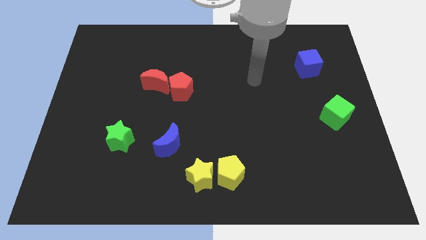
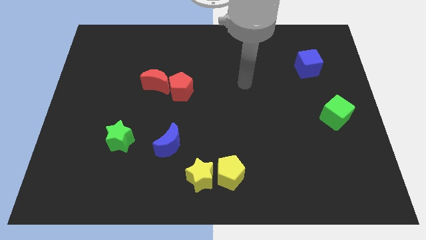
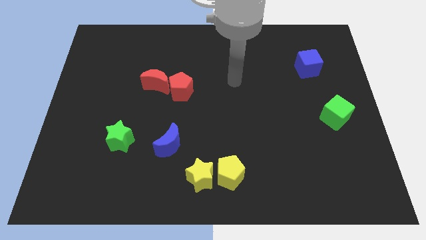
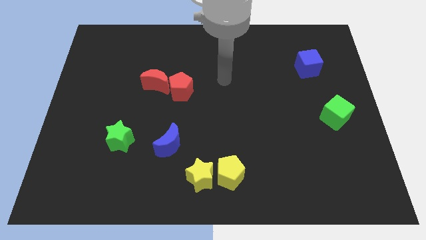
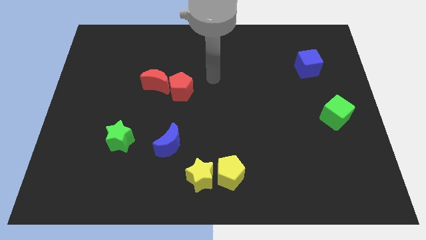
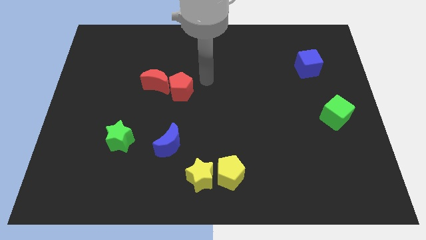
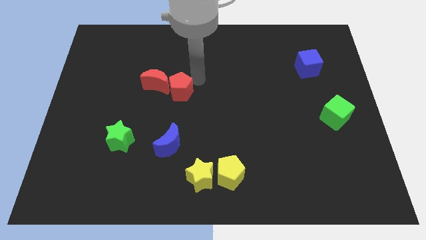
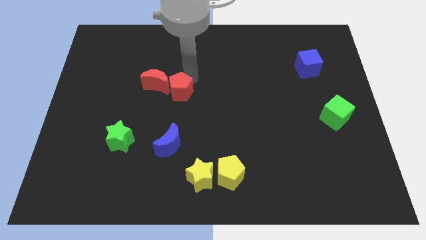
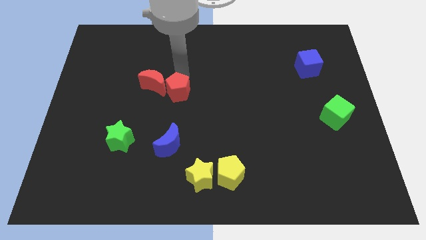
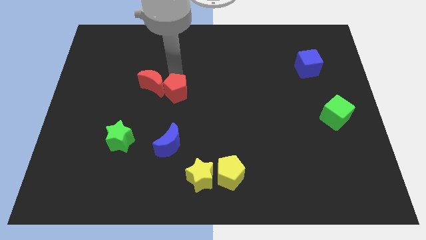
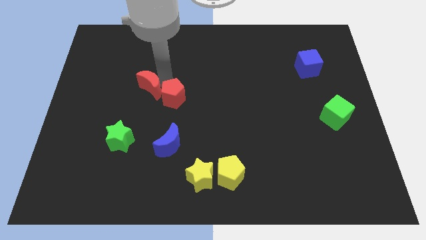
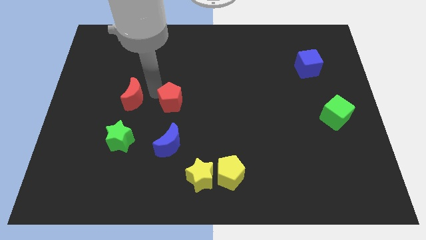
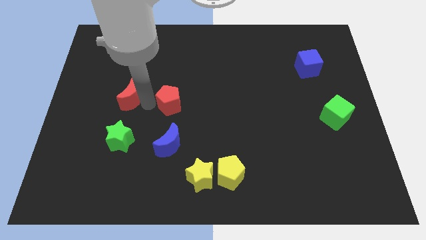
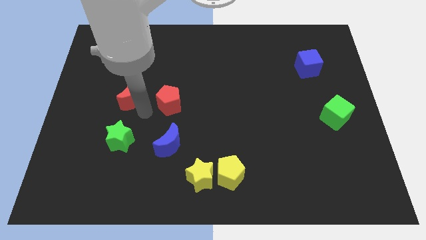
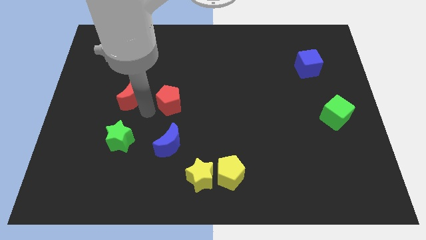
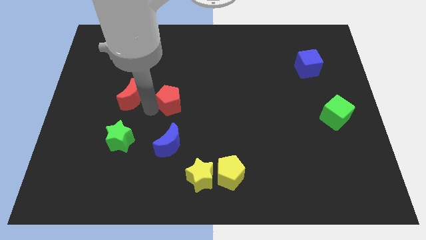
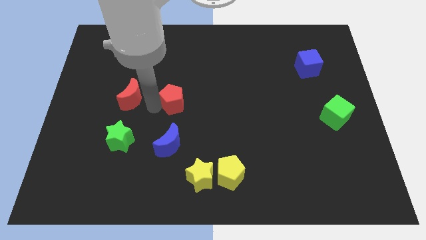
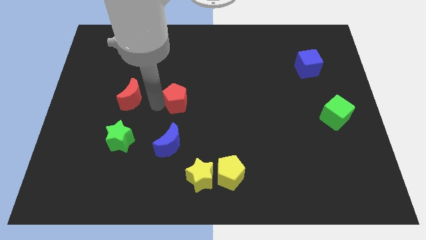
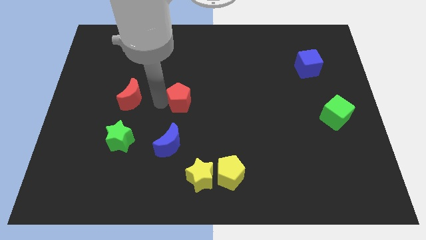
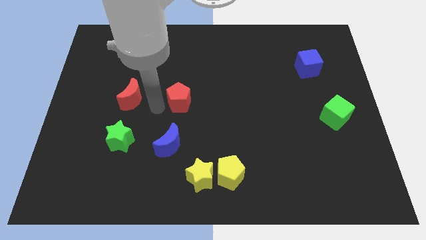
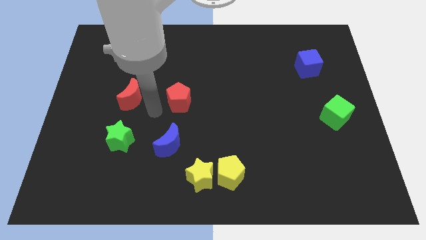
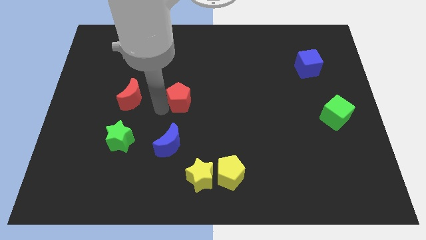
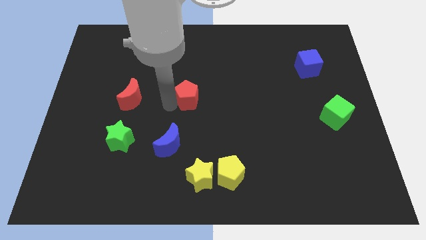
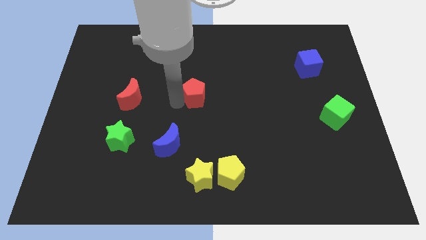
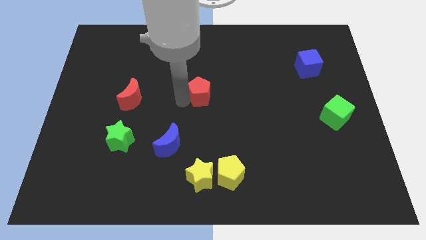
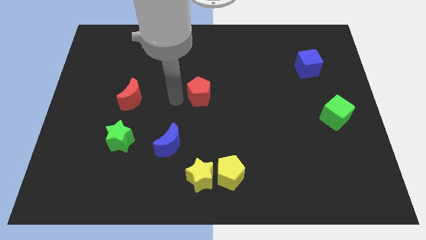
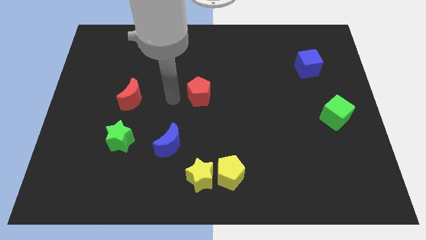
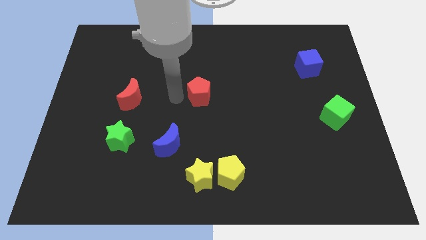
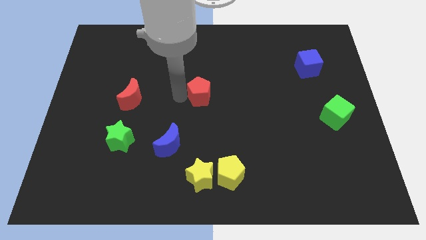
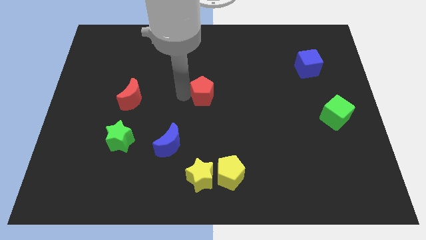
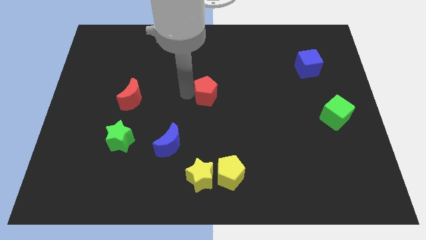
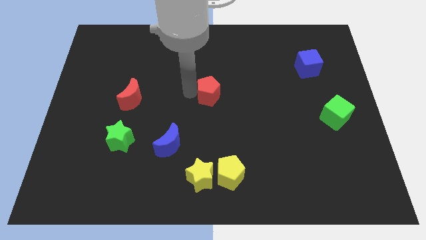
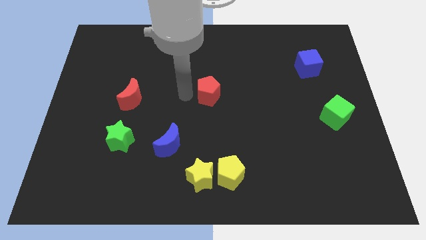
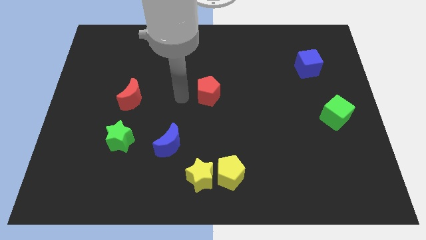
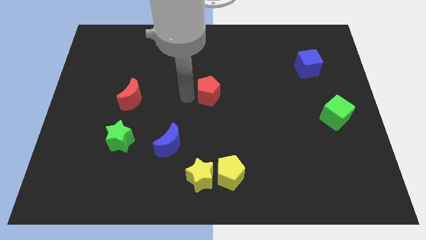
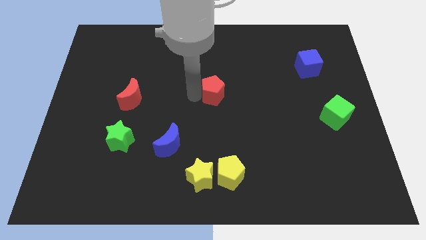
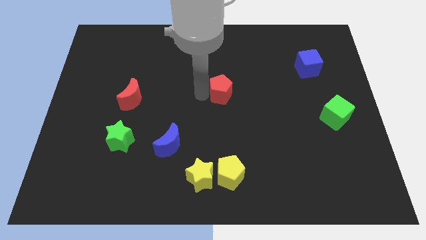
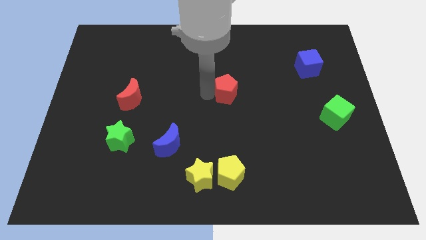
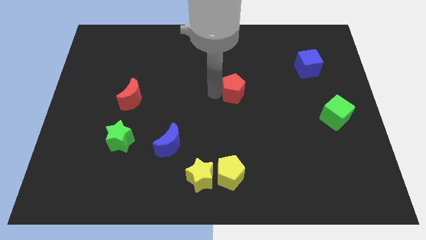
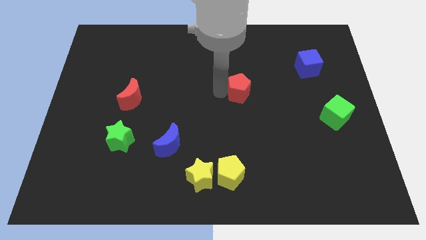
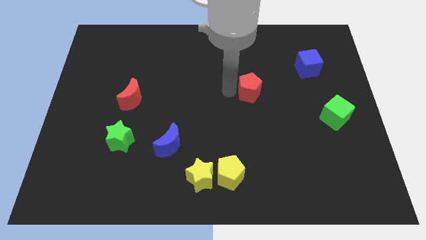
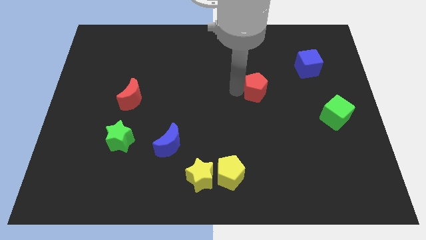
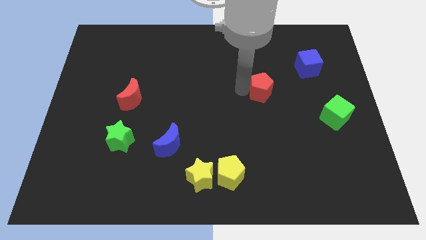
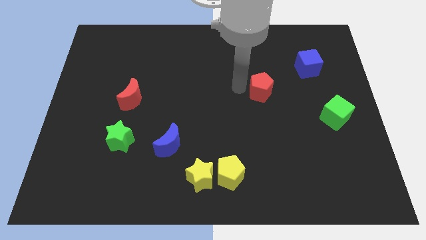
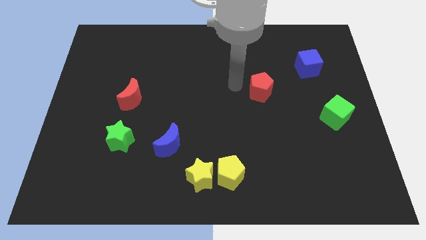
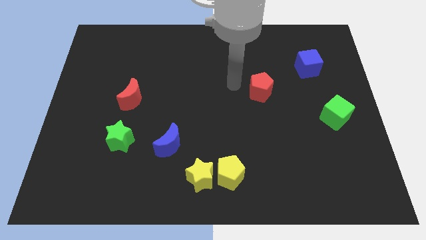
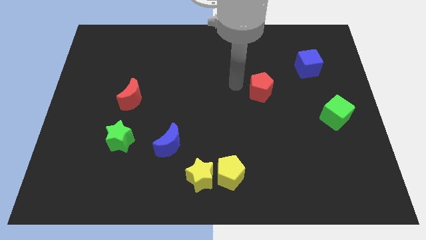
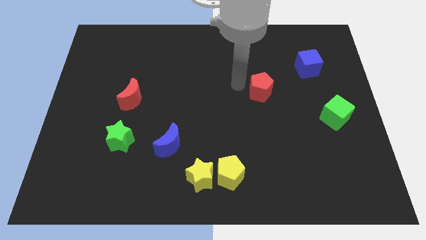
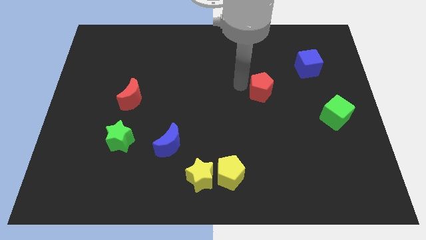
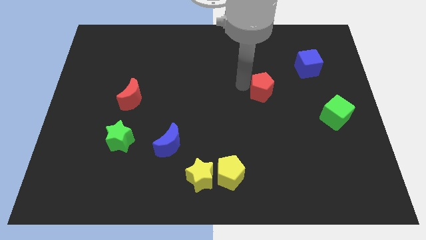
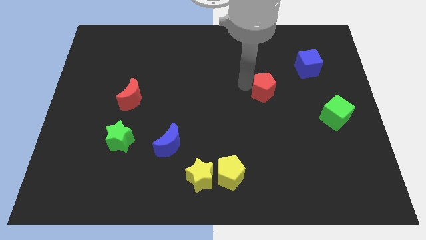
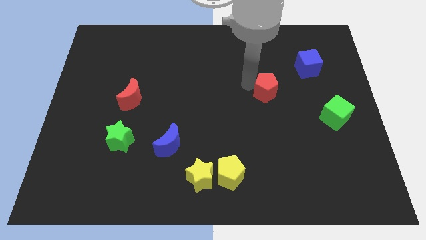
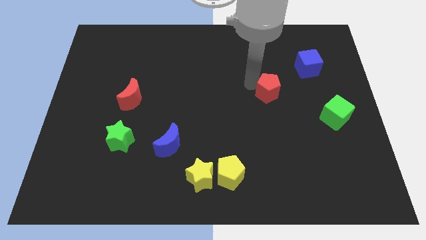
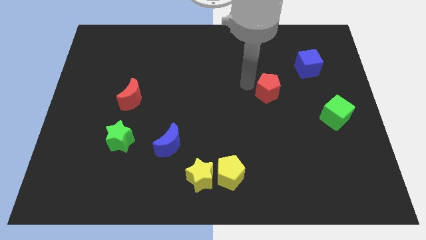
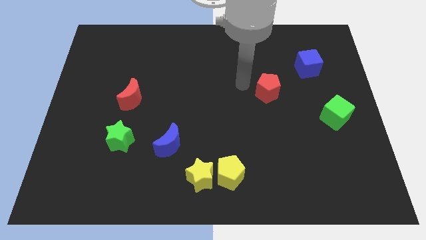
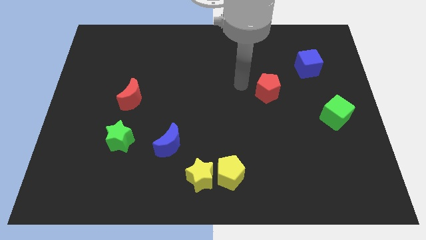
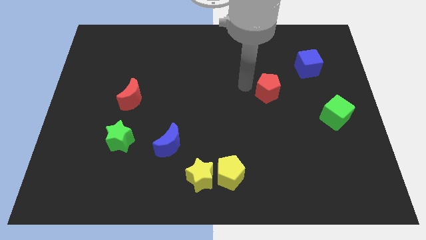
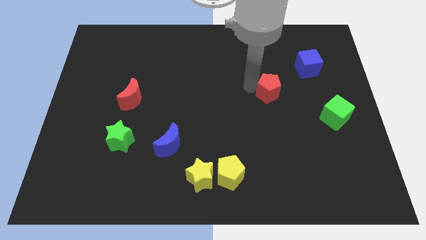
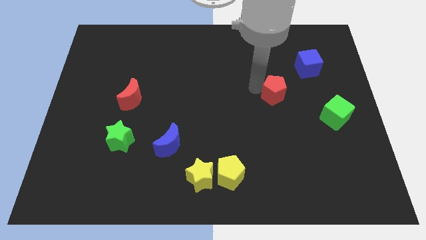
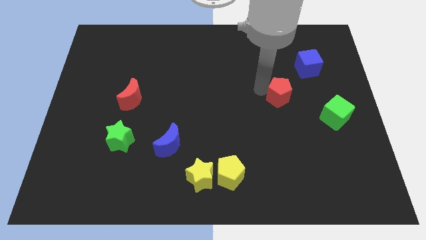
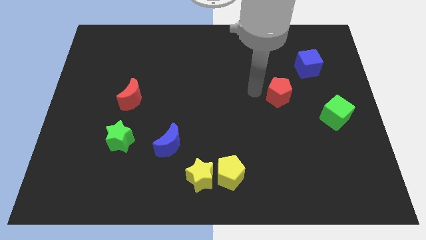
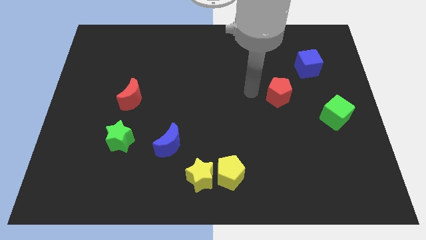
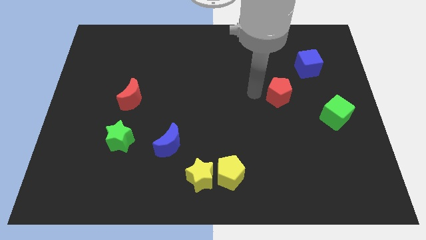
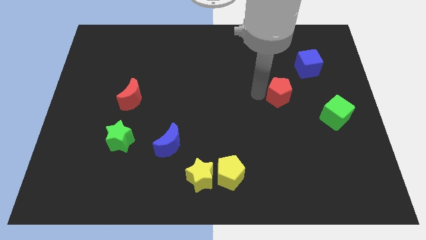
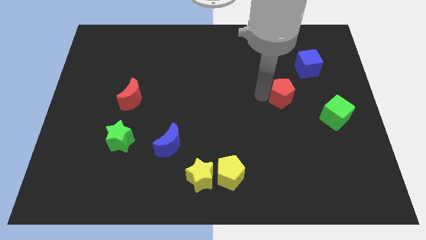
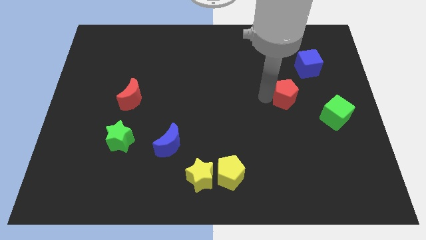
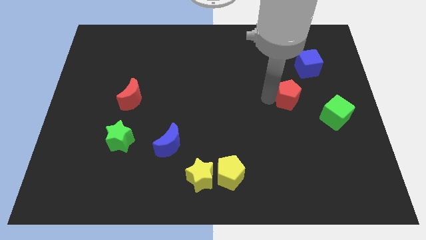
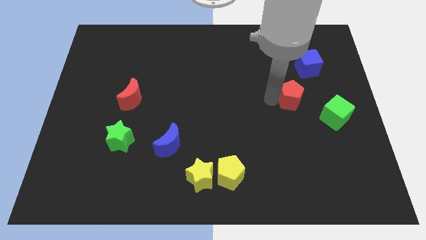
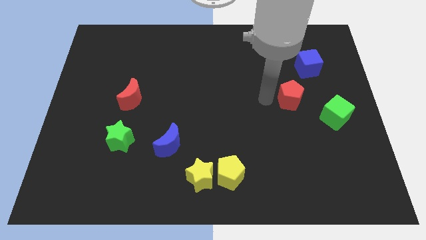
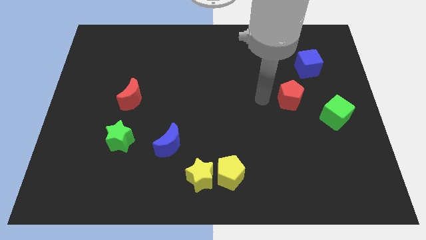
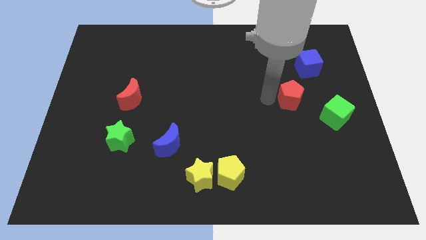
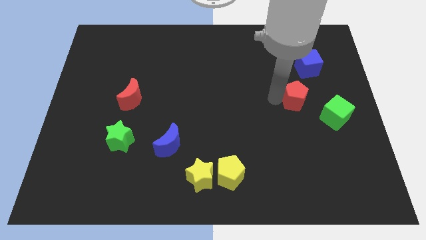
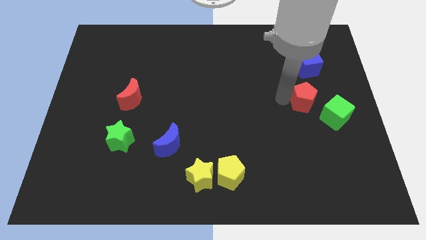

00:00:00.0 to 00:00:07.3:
put the red pentagon to the bottom of the blue cube
